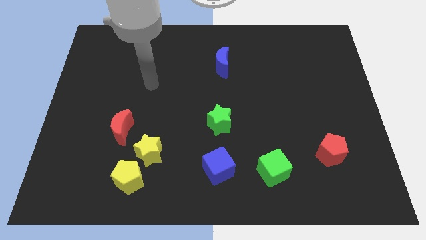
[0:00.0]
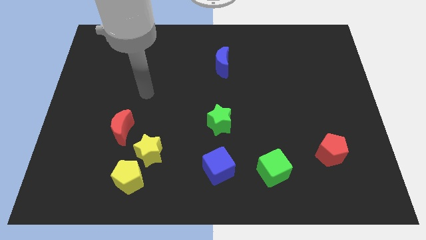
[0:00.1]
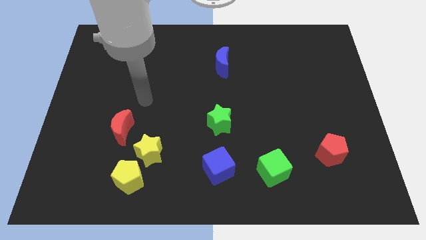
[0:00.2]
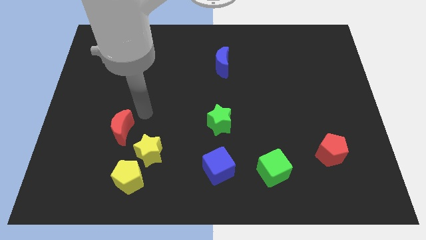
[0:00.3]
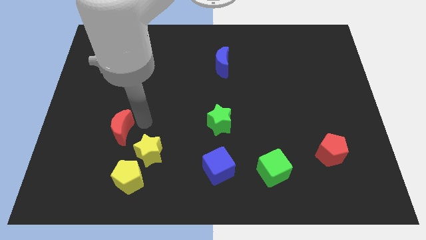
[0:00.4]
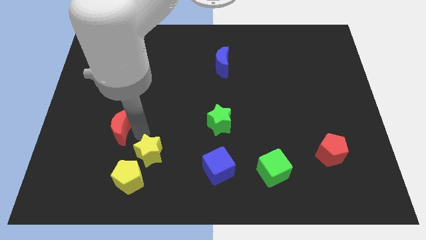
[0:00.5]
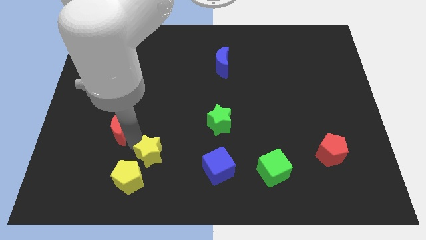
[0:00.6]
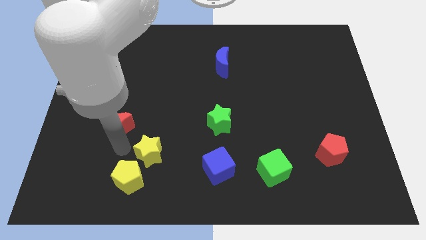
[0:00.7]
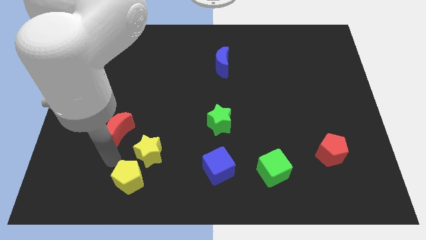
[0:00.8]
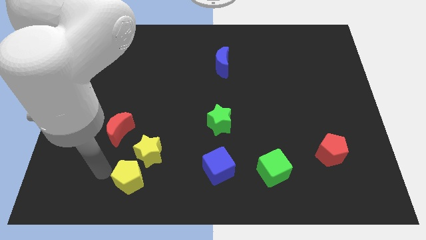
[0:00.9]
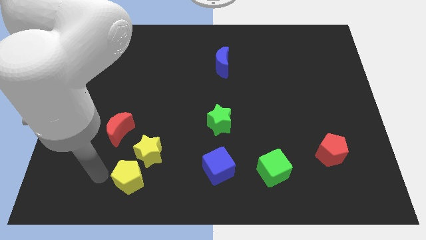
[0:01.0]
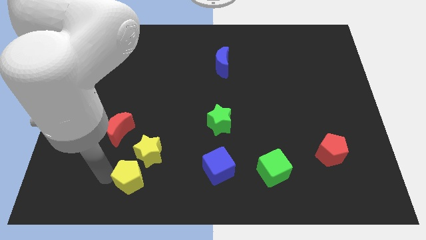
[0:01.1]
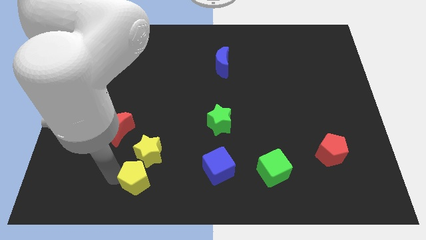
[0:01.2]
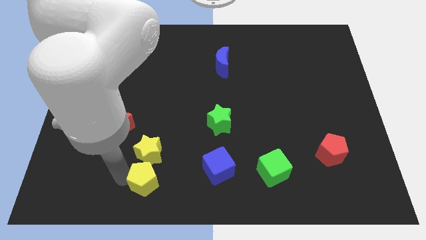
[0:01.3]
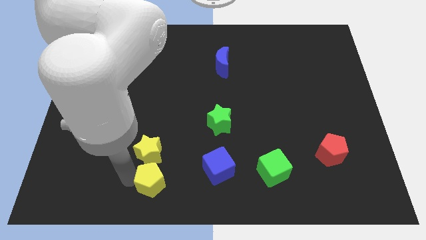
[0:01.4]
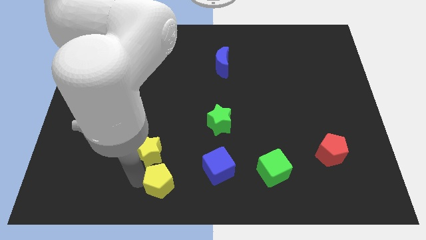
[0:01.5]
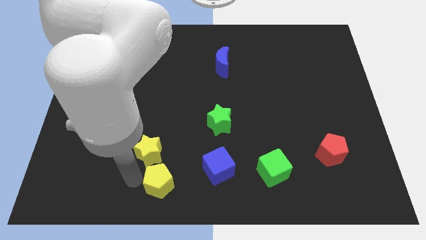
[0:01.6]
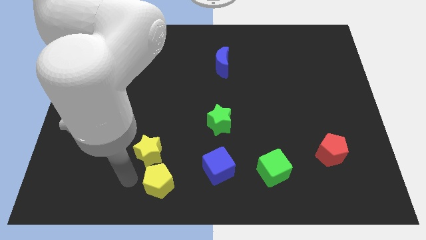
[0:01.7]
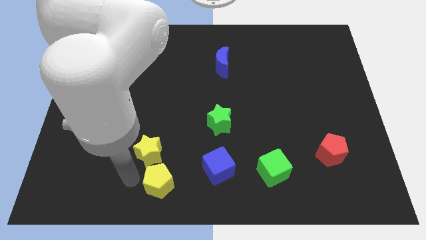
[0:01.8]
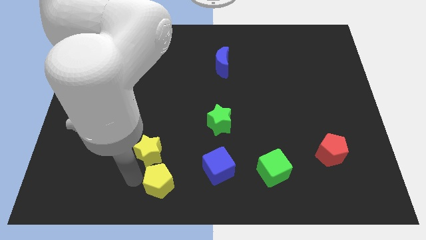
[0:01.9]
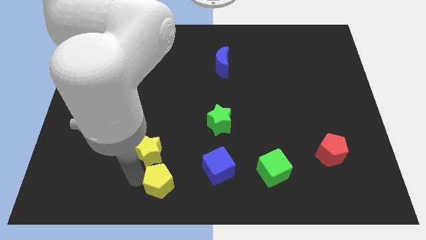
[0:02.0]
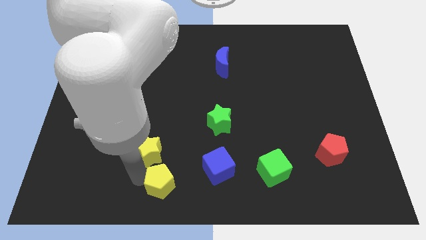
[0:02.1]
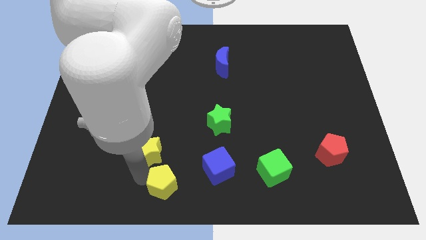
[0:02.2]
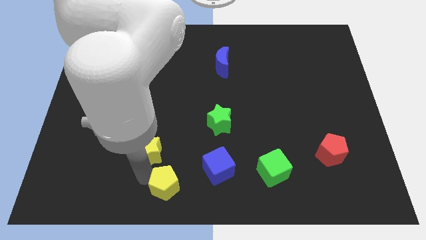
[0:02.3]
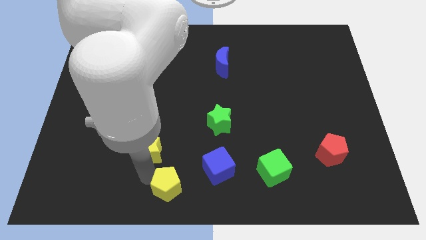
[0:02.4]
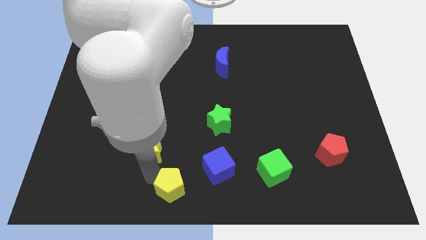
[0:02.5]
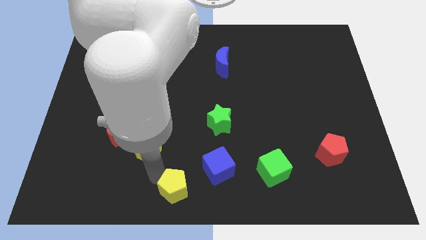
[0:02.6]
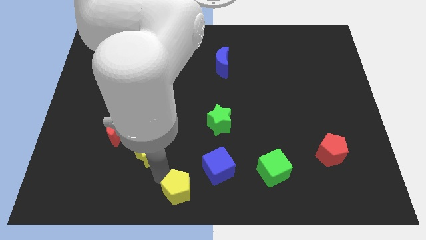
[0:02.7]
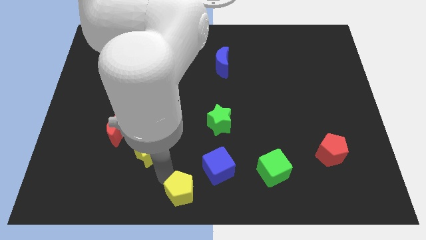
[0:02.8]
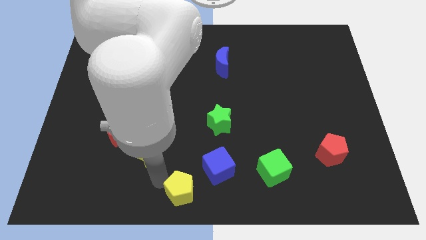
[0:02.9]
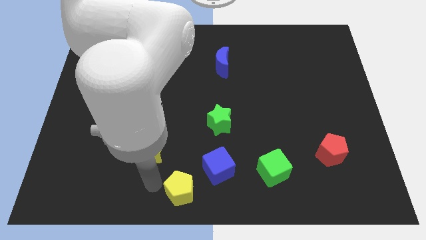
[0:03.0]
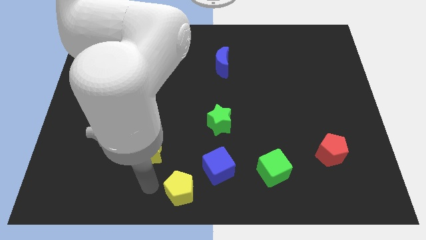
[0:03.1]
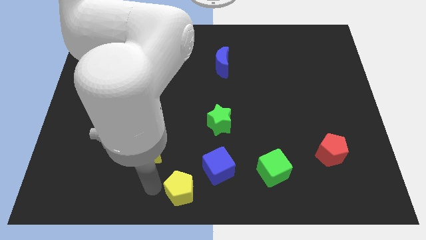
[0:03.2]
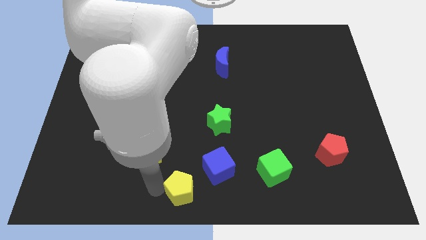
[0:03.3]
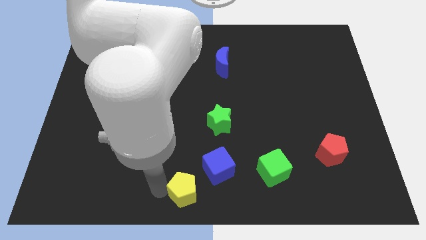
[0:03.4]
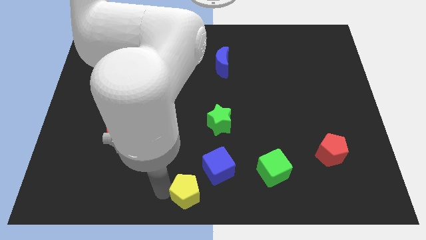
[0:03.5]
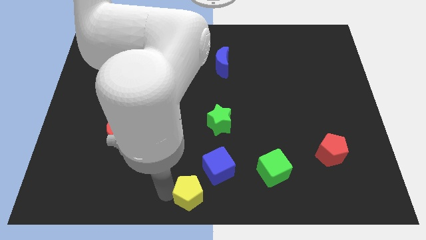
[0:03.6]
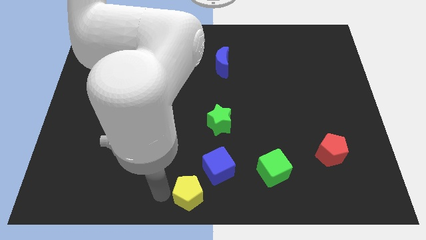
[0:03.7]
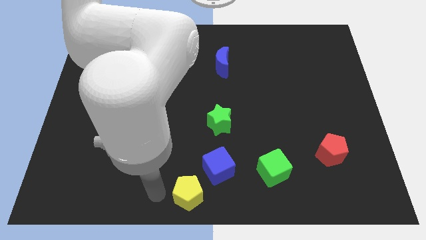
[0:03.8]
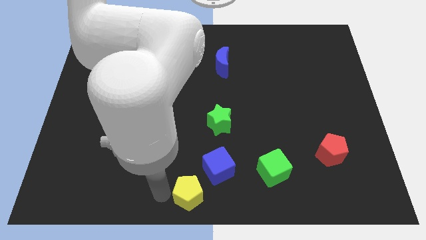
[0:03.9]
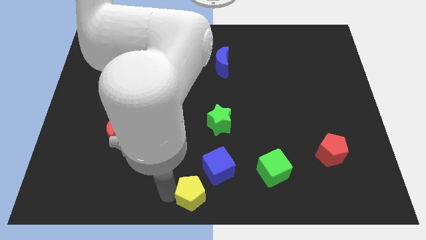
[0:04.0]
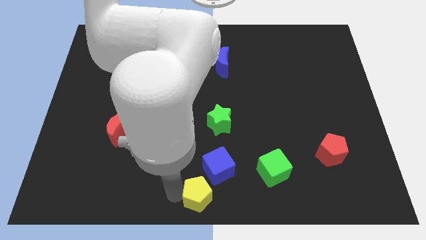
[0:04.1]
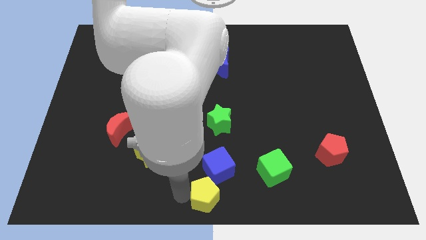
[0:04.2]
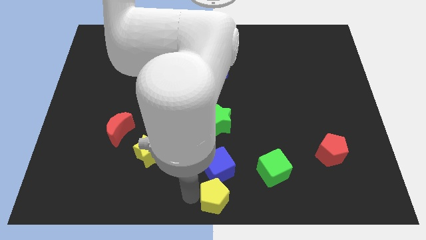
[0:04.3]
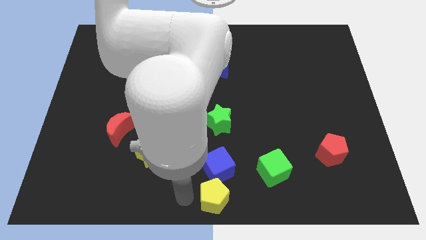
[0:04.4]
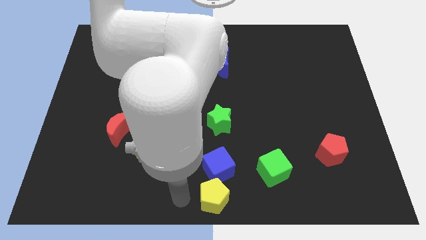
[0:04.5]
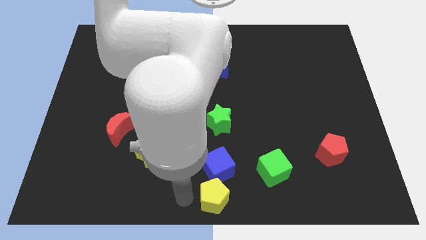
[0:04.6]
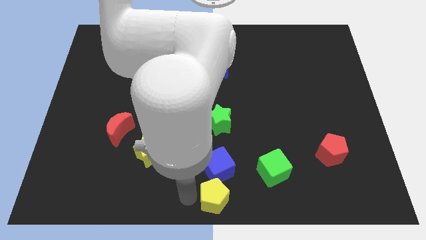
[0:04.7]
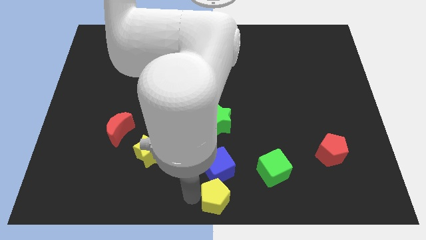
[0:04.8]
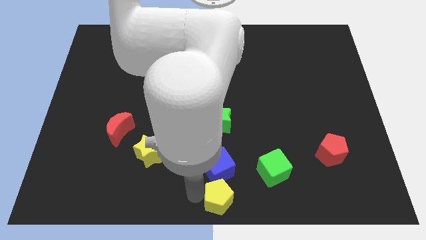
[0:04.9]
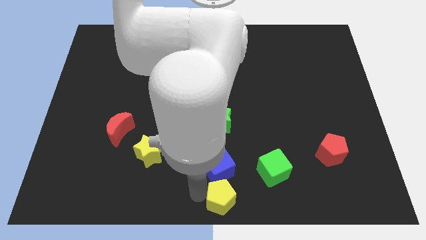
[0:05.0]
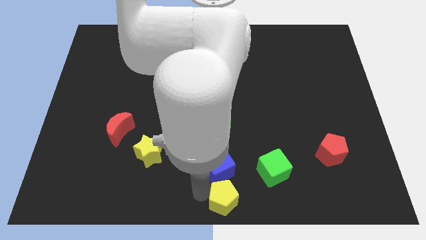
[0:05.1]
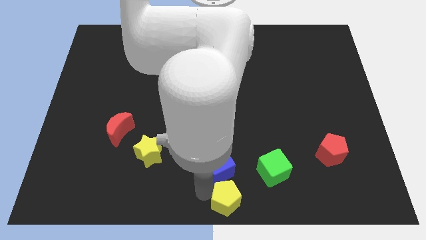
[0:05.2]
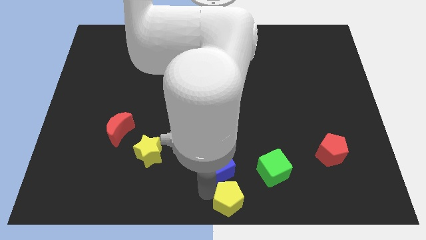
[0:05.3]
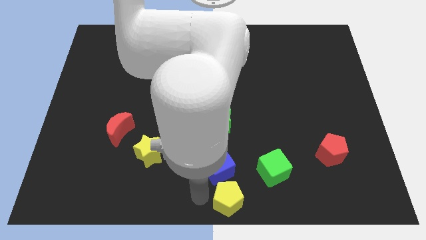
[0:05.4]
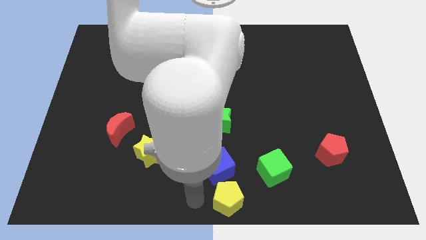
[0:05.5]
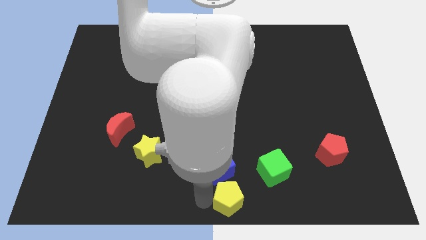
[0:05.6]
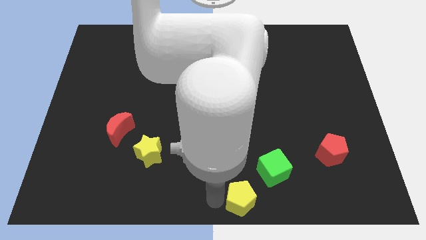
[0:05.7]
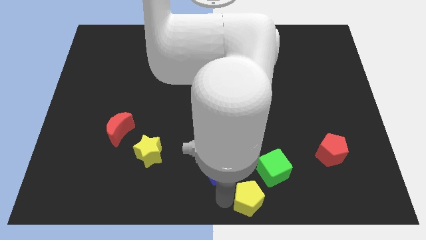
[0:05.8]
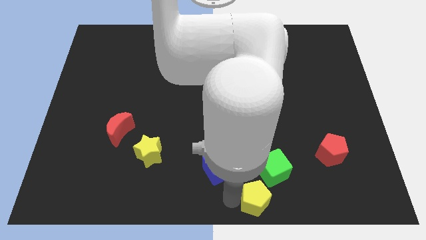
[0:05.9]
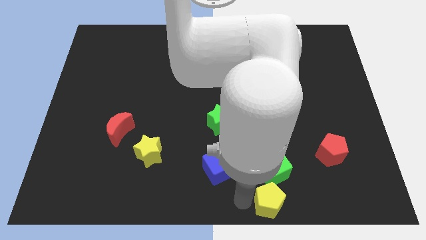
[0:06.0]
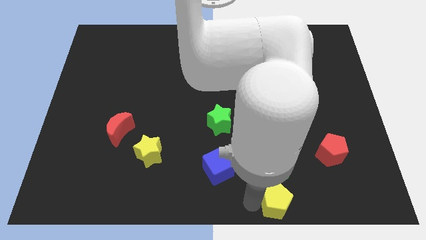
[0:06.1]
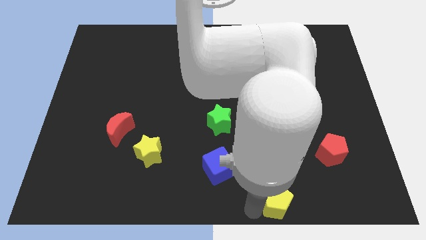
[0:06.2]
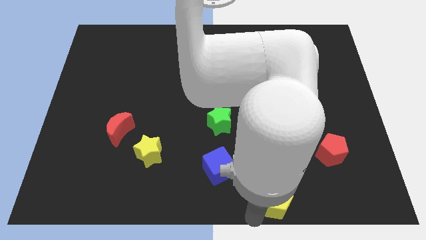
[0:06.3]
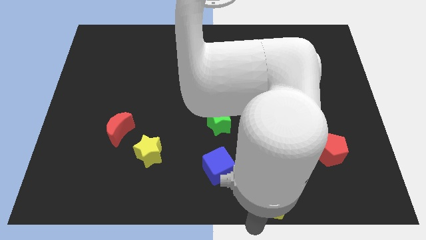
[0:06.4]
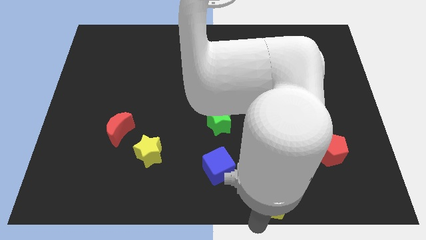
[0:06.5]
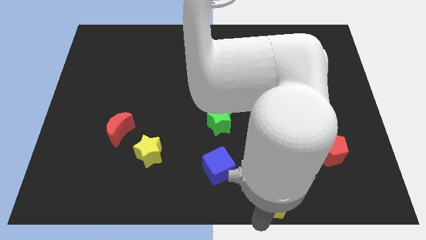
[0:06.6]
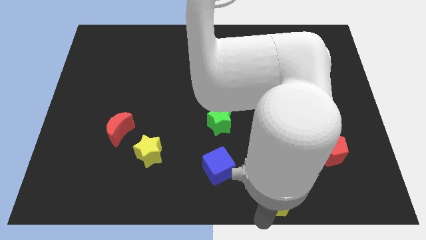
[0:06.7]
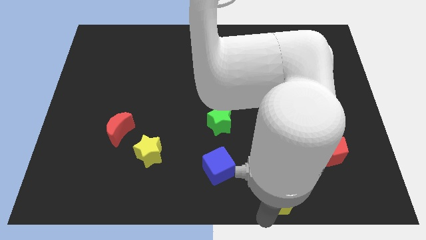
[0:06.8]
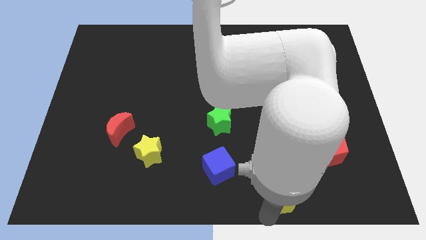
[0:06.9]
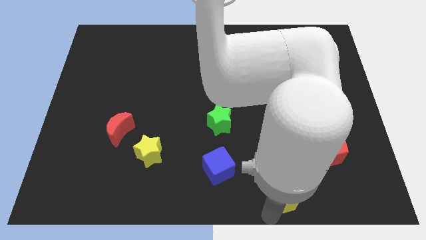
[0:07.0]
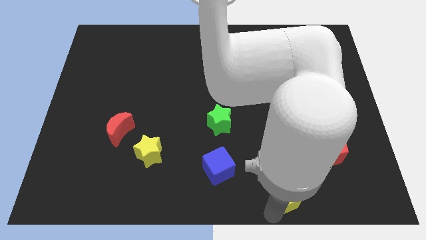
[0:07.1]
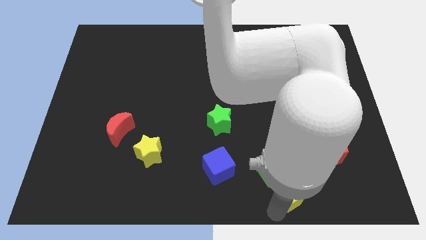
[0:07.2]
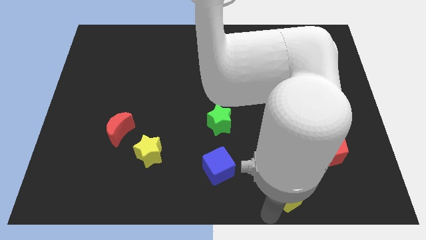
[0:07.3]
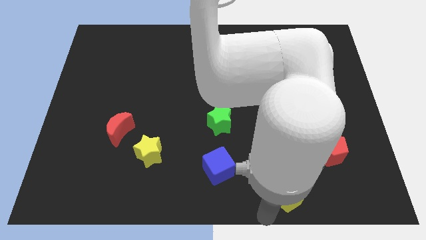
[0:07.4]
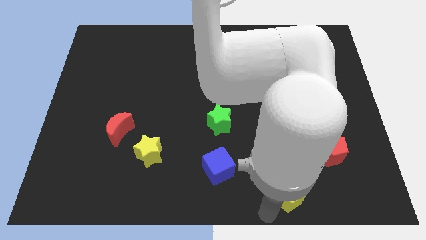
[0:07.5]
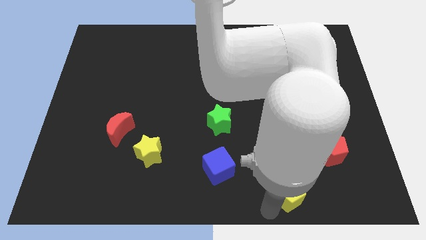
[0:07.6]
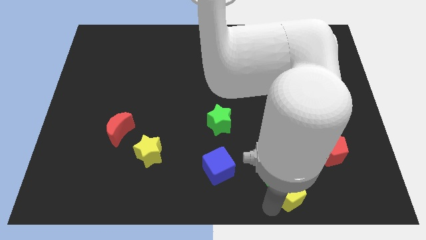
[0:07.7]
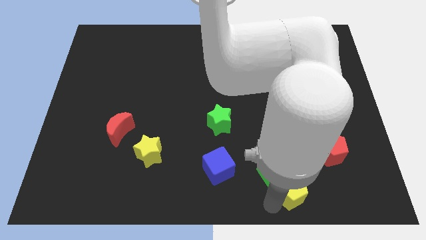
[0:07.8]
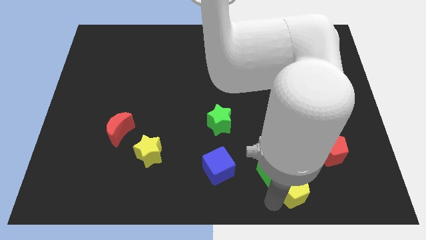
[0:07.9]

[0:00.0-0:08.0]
put the yellow pentagon to the right of the green cube
